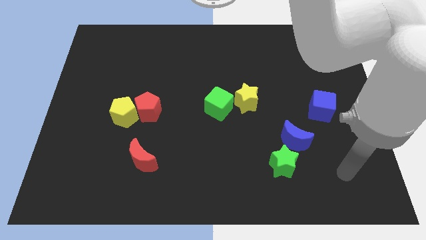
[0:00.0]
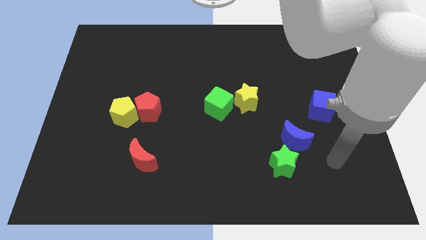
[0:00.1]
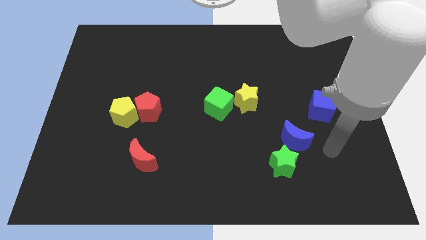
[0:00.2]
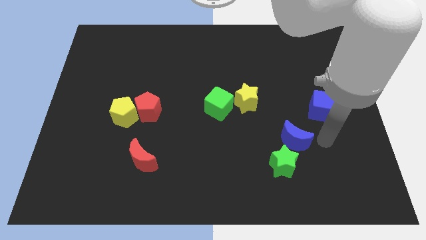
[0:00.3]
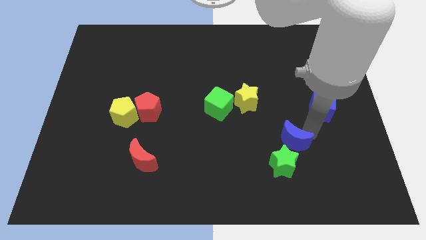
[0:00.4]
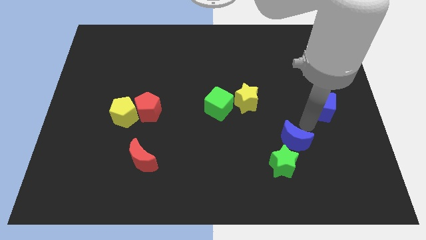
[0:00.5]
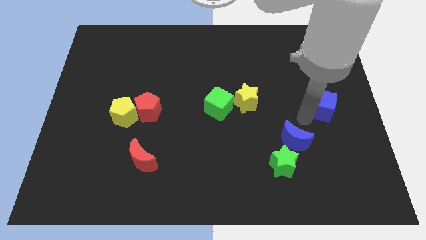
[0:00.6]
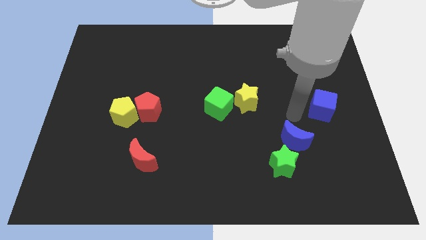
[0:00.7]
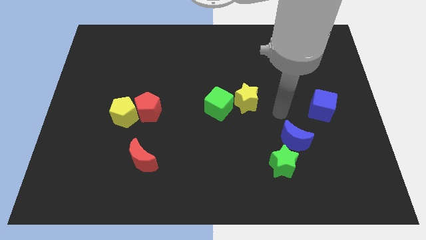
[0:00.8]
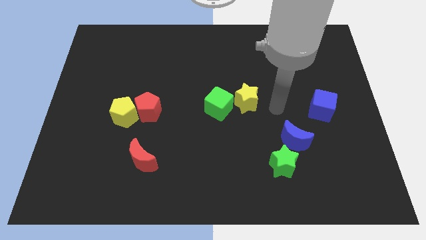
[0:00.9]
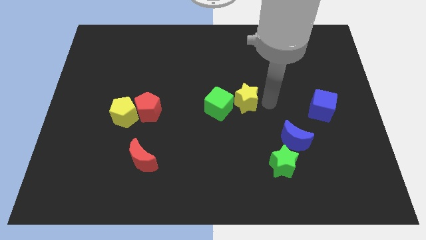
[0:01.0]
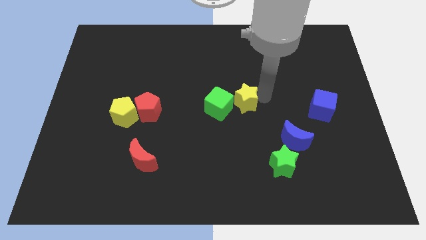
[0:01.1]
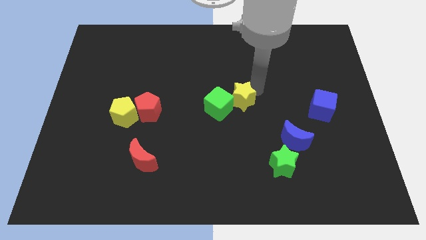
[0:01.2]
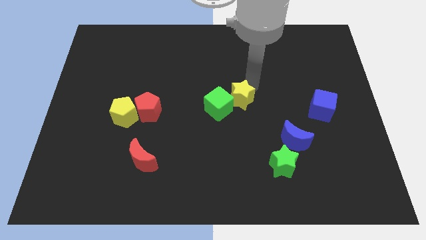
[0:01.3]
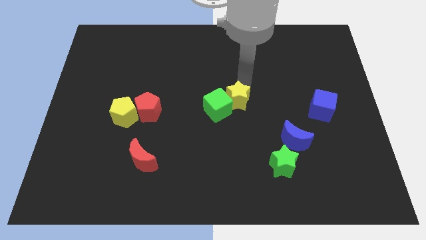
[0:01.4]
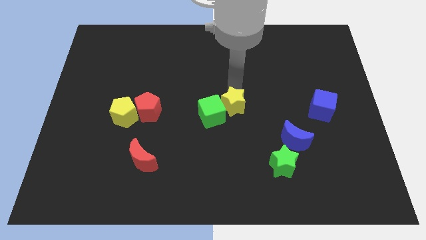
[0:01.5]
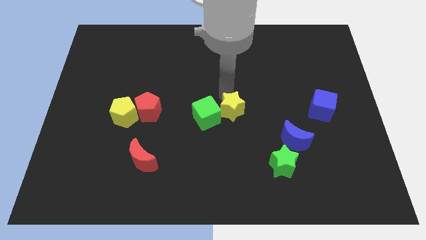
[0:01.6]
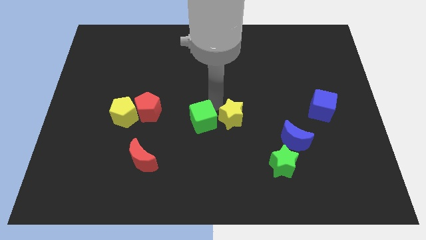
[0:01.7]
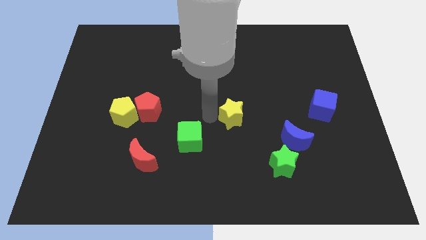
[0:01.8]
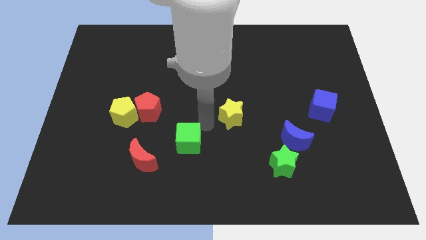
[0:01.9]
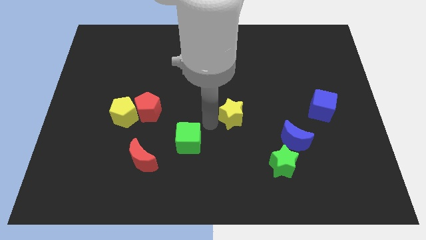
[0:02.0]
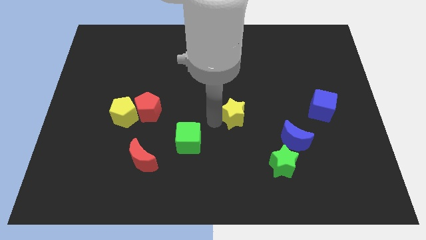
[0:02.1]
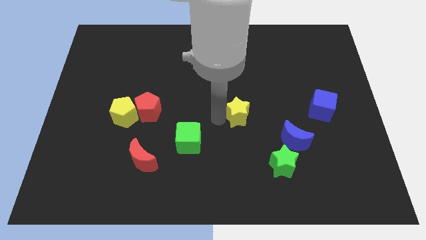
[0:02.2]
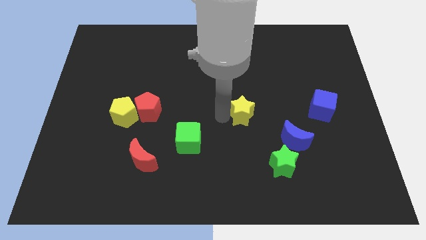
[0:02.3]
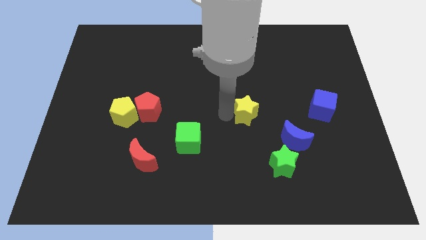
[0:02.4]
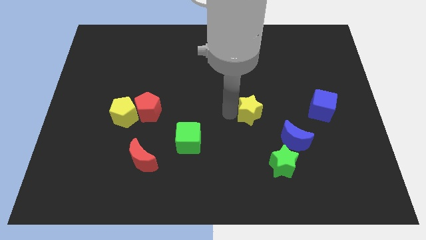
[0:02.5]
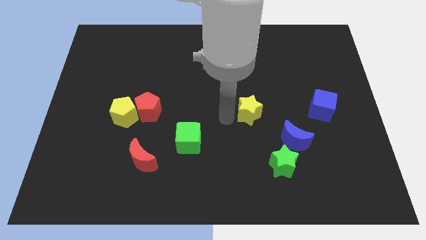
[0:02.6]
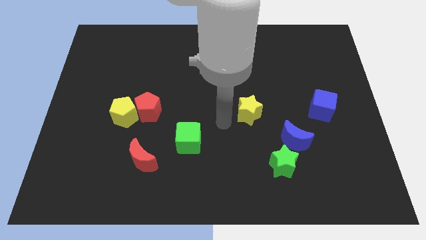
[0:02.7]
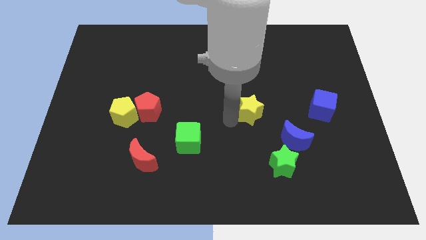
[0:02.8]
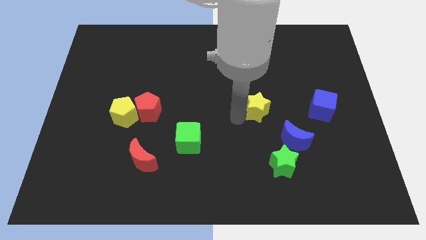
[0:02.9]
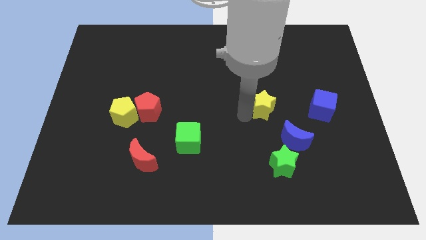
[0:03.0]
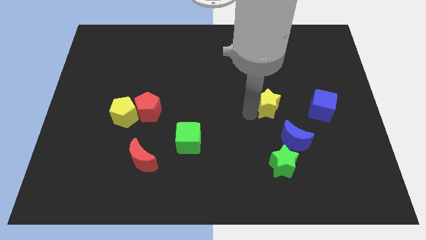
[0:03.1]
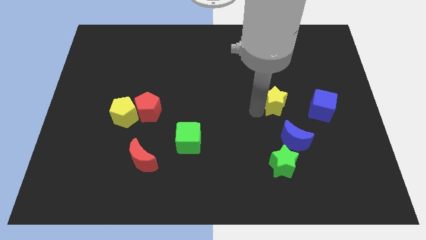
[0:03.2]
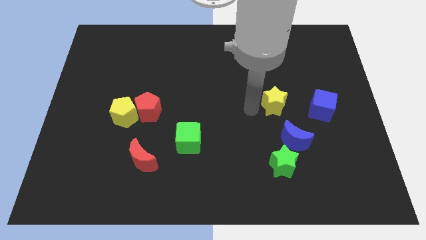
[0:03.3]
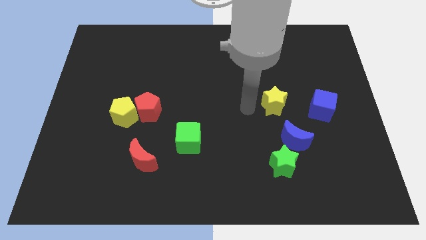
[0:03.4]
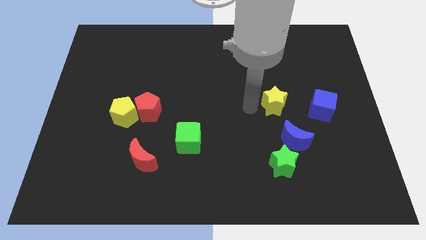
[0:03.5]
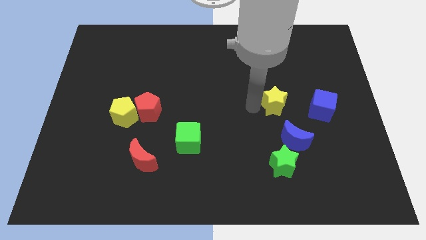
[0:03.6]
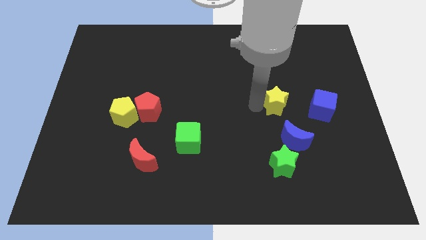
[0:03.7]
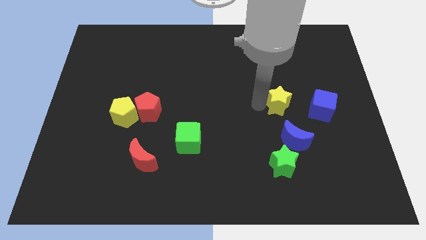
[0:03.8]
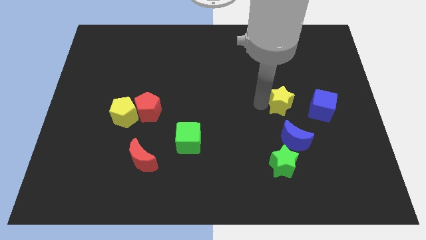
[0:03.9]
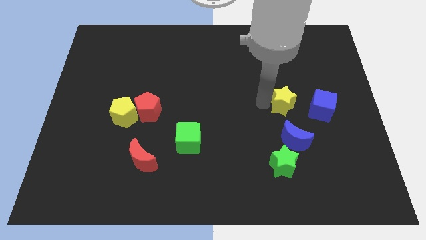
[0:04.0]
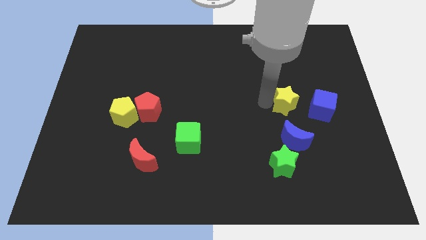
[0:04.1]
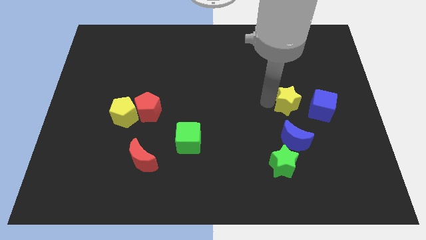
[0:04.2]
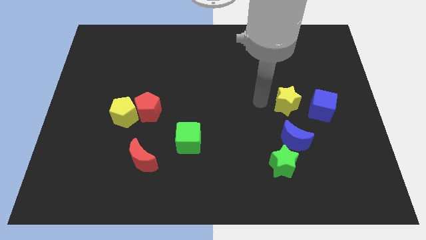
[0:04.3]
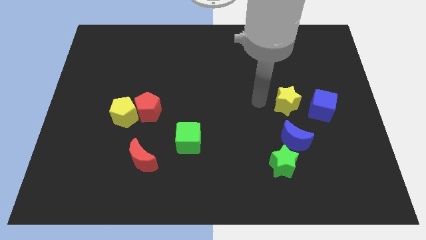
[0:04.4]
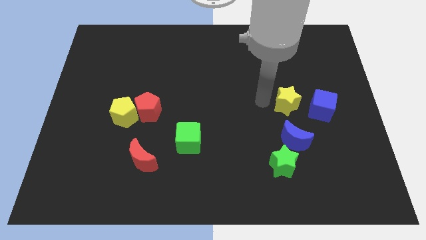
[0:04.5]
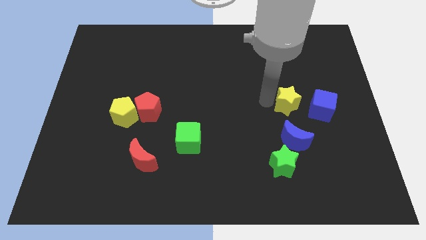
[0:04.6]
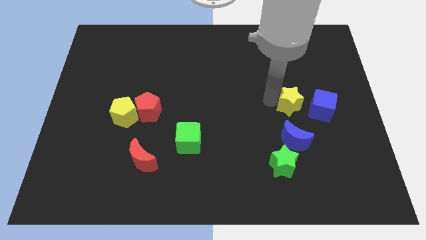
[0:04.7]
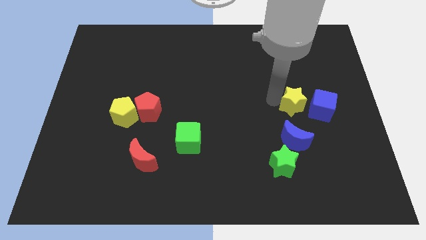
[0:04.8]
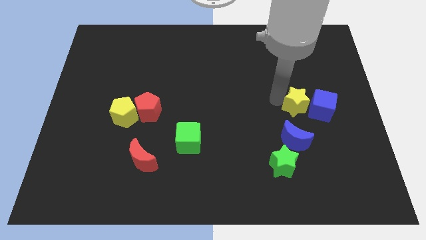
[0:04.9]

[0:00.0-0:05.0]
move the yellow star next to the blue cube

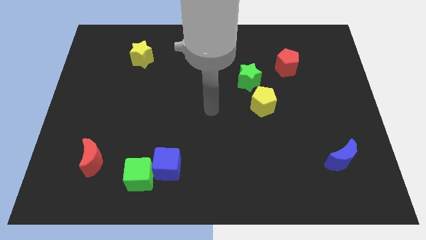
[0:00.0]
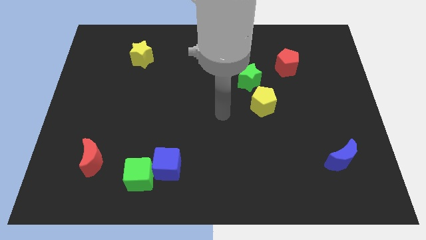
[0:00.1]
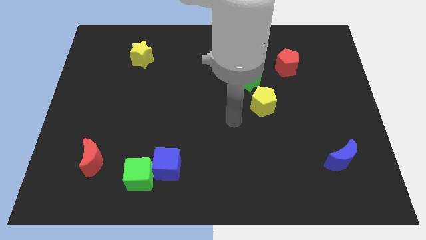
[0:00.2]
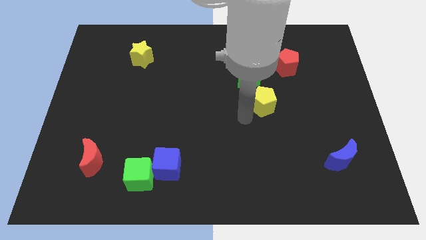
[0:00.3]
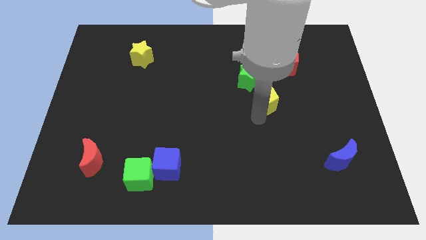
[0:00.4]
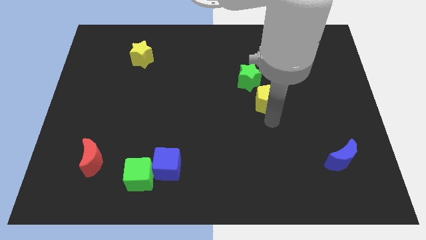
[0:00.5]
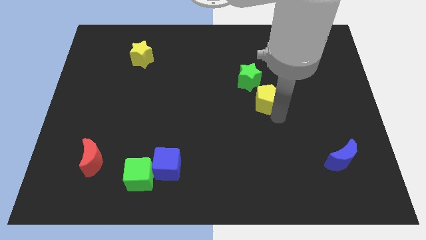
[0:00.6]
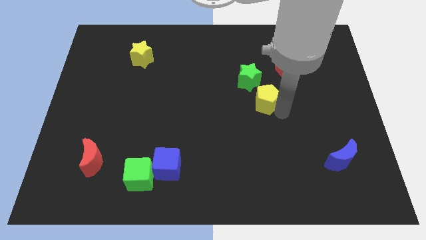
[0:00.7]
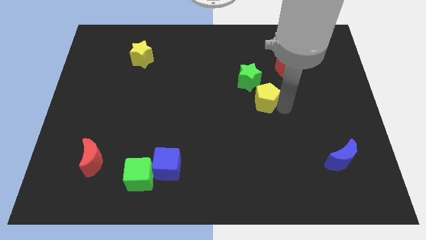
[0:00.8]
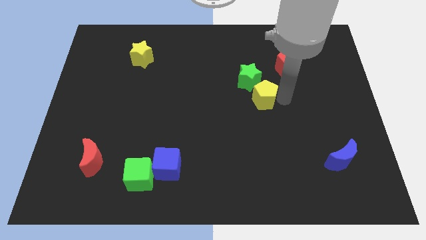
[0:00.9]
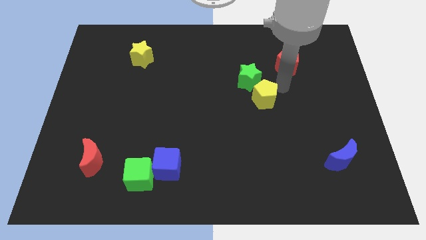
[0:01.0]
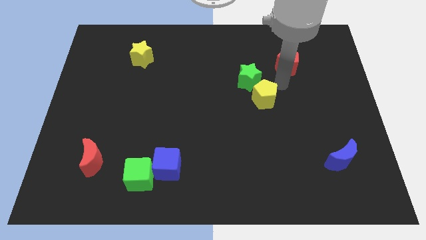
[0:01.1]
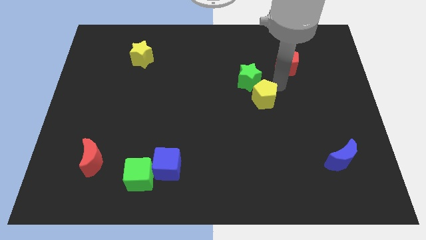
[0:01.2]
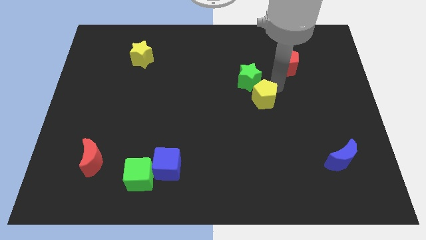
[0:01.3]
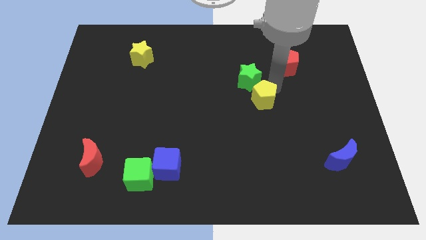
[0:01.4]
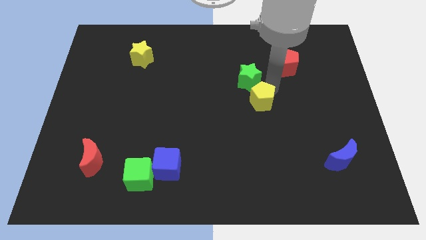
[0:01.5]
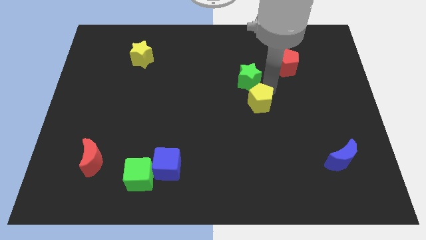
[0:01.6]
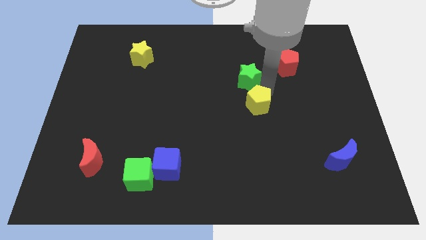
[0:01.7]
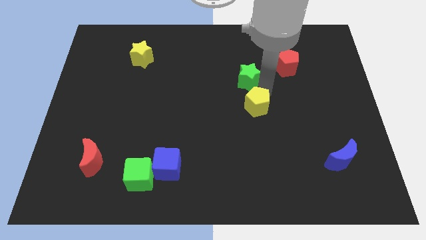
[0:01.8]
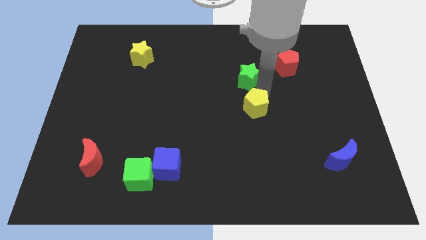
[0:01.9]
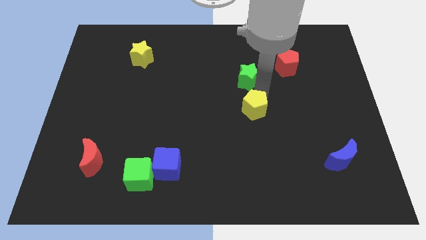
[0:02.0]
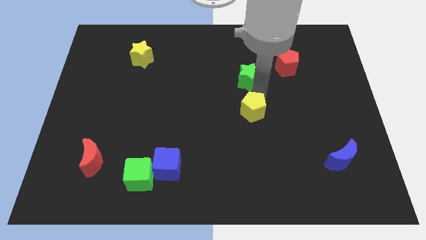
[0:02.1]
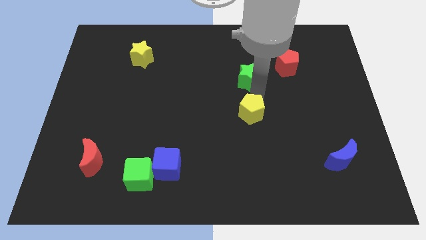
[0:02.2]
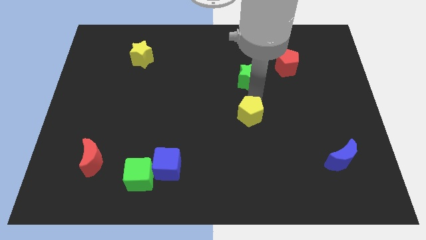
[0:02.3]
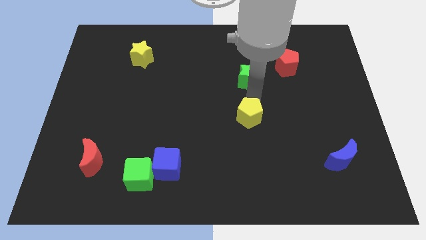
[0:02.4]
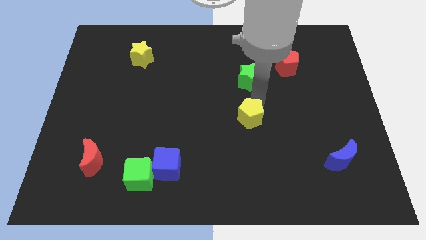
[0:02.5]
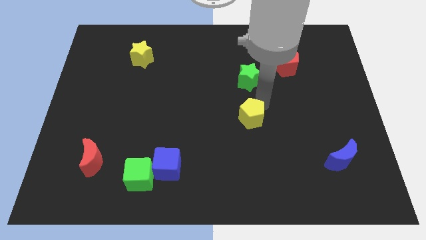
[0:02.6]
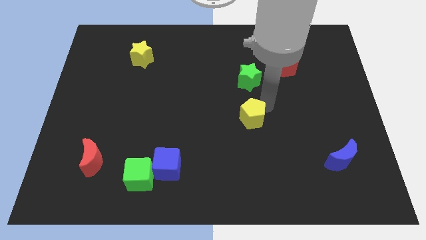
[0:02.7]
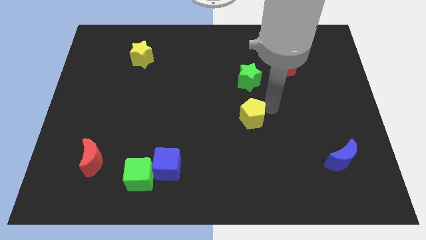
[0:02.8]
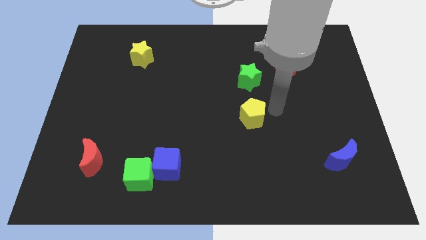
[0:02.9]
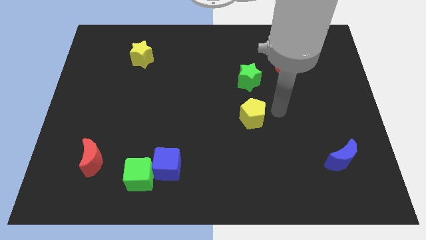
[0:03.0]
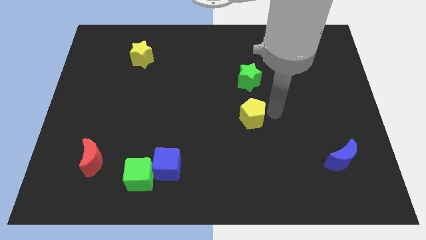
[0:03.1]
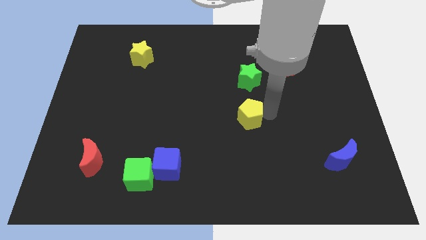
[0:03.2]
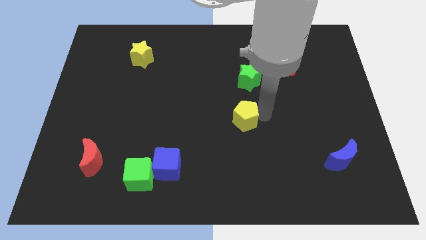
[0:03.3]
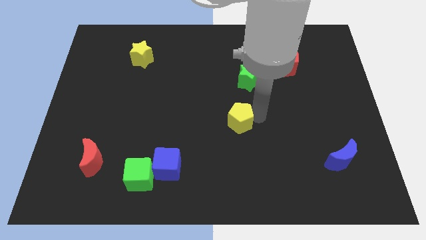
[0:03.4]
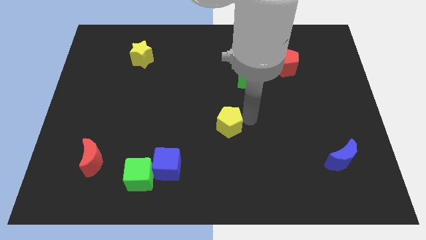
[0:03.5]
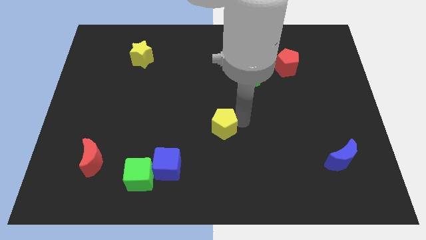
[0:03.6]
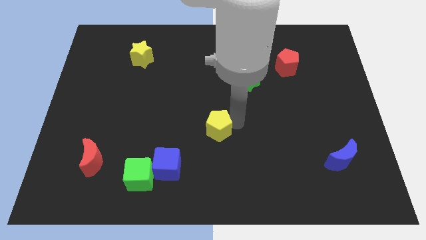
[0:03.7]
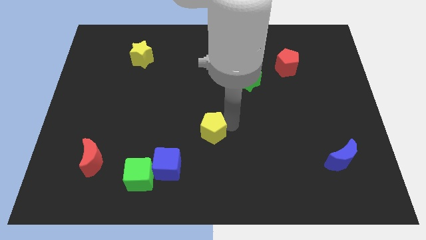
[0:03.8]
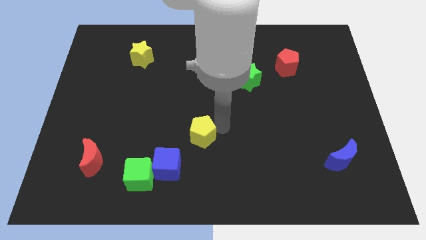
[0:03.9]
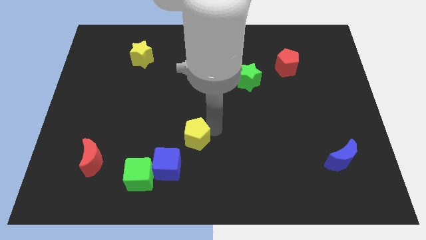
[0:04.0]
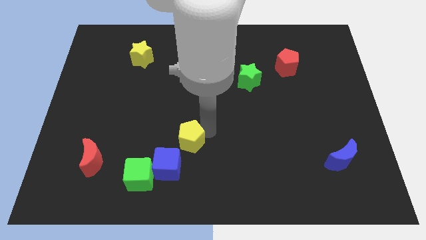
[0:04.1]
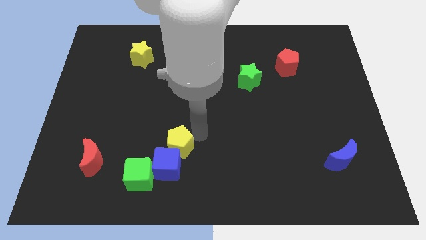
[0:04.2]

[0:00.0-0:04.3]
put the yellow pentagon close to the blue cube
